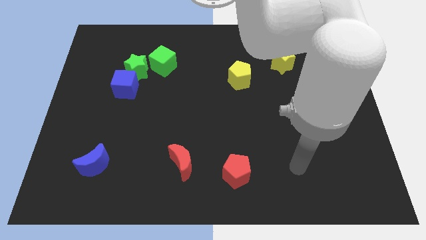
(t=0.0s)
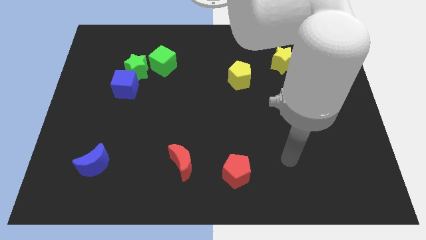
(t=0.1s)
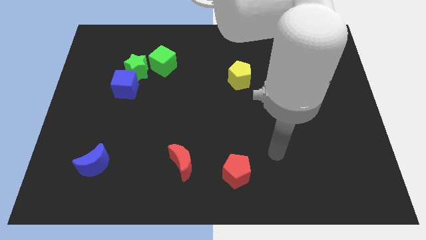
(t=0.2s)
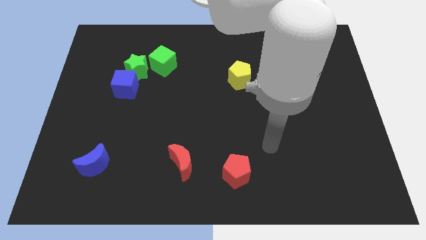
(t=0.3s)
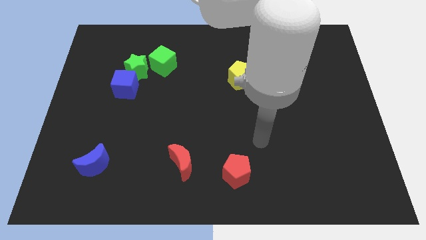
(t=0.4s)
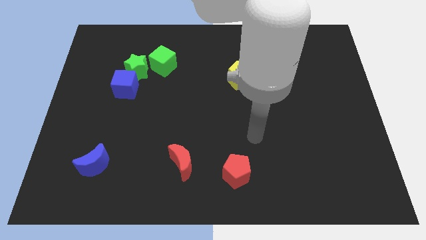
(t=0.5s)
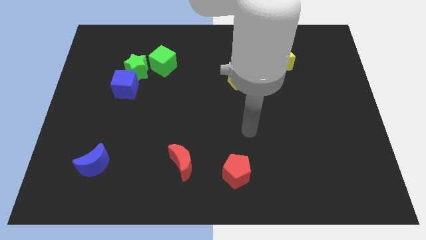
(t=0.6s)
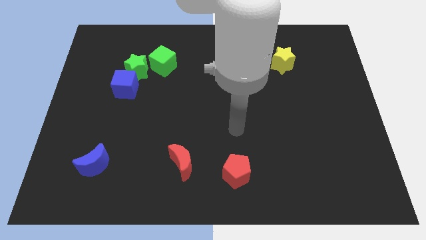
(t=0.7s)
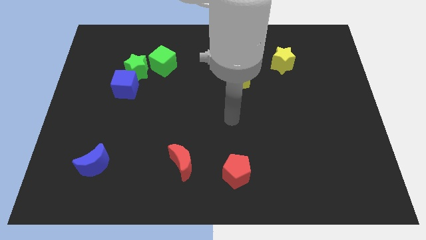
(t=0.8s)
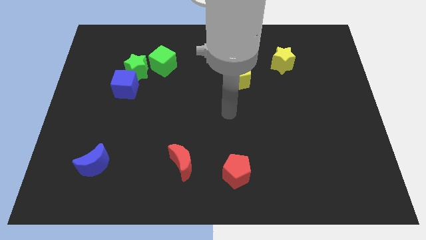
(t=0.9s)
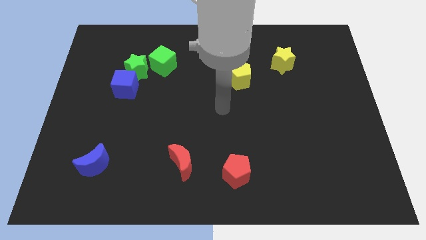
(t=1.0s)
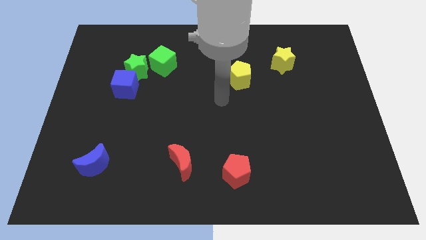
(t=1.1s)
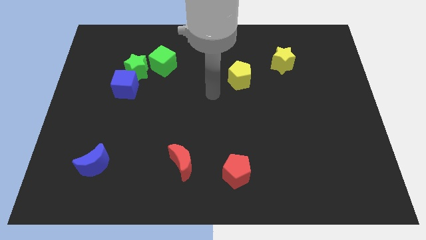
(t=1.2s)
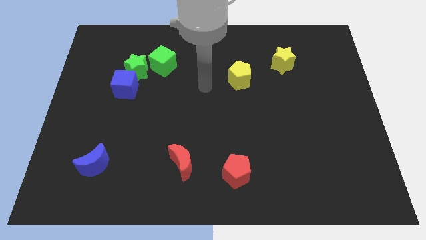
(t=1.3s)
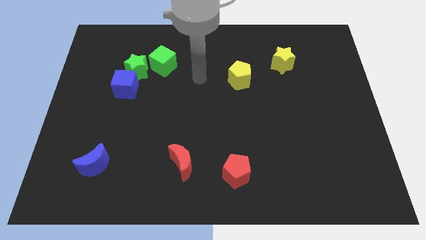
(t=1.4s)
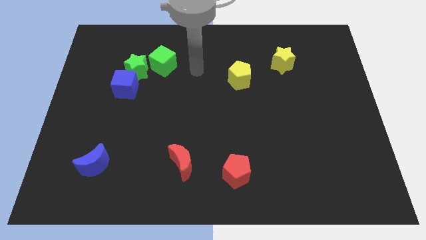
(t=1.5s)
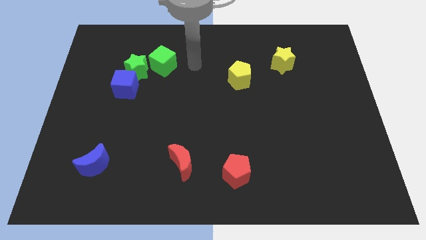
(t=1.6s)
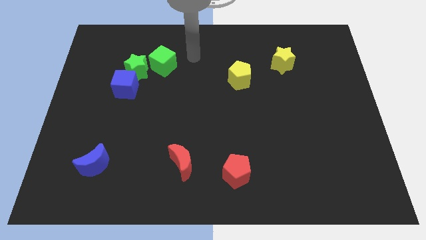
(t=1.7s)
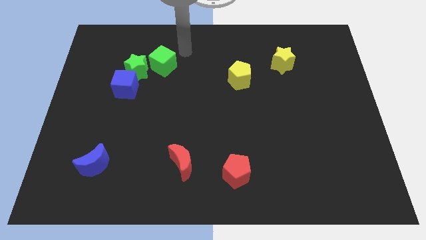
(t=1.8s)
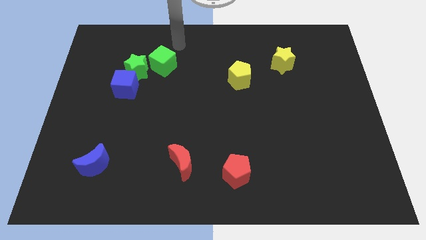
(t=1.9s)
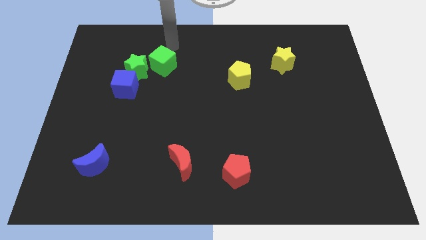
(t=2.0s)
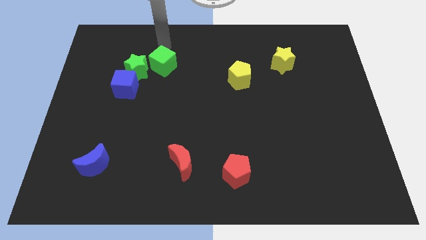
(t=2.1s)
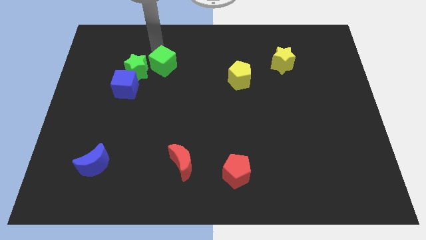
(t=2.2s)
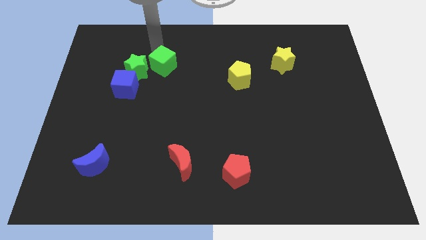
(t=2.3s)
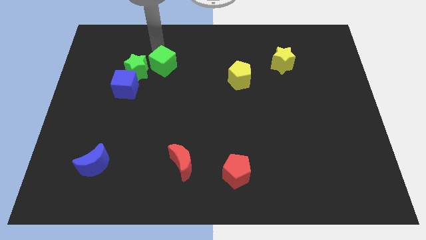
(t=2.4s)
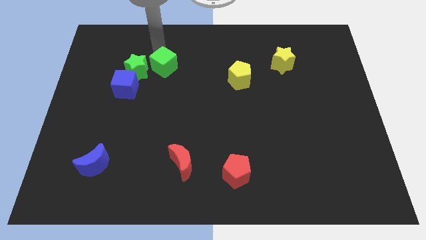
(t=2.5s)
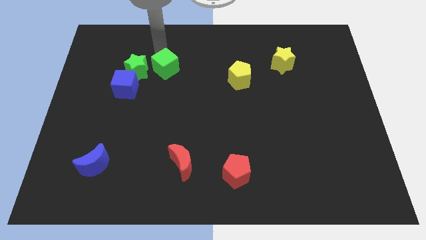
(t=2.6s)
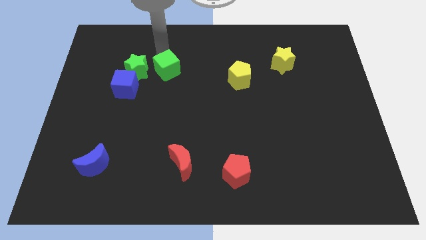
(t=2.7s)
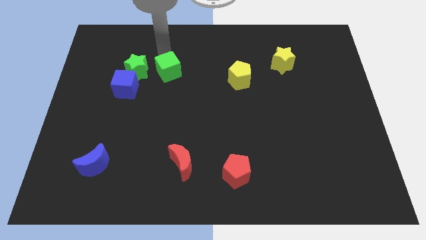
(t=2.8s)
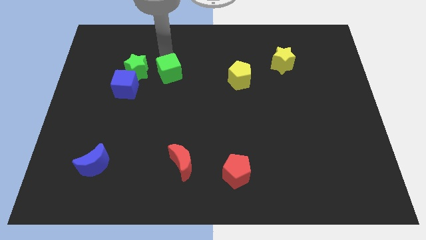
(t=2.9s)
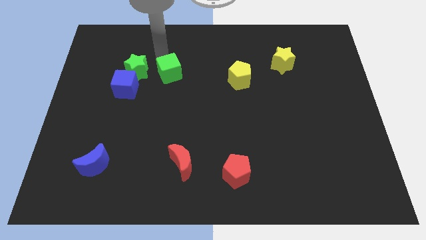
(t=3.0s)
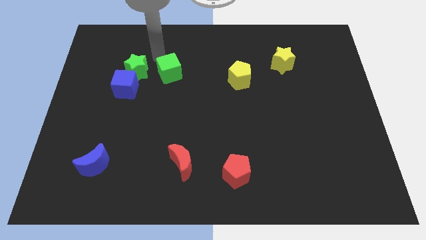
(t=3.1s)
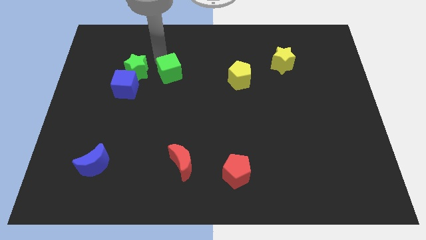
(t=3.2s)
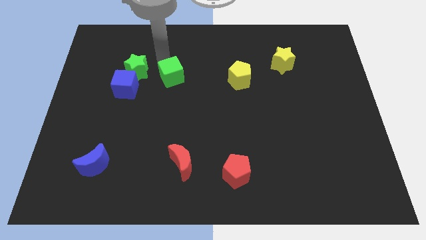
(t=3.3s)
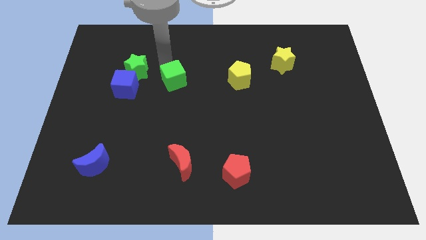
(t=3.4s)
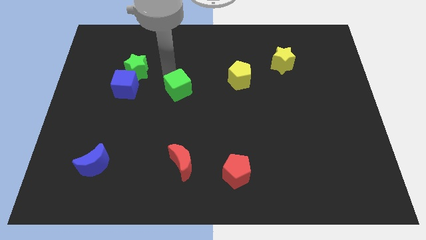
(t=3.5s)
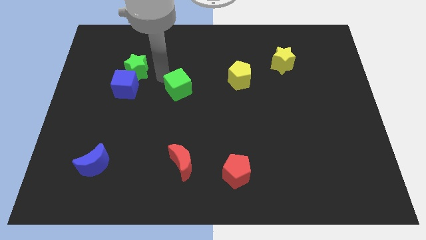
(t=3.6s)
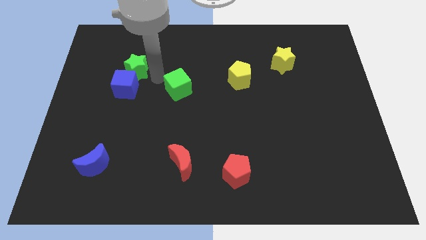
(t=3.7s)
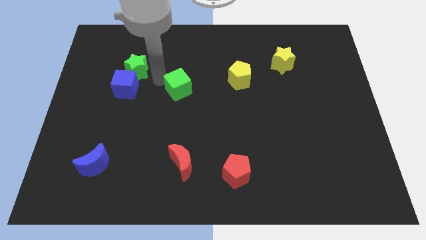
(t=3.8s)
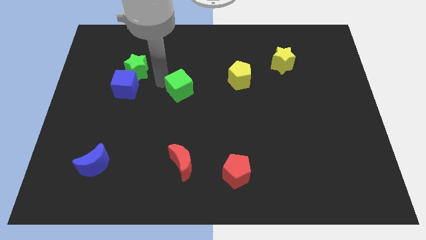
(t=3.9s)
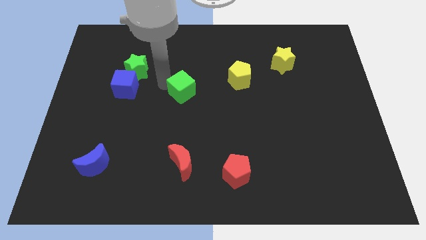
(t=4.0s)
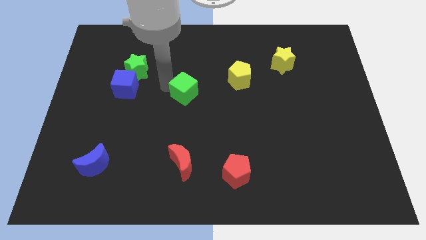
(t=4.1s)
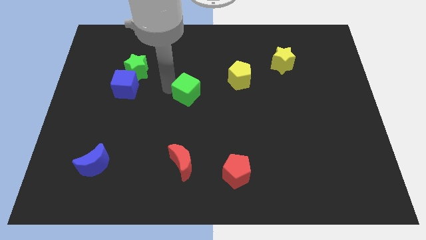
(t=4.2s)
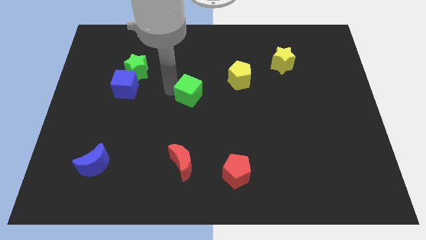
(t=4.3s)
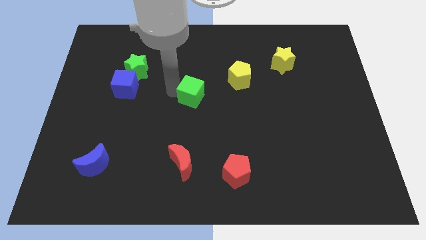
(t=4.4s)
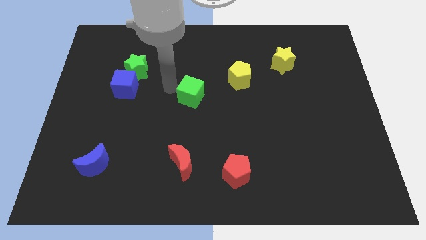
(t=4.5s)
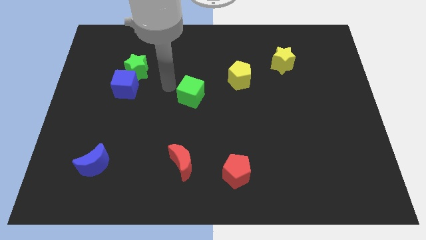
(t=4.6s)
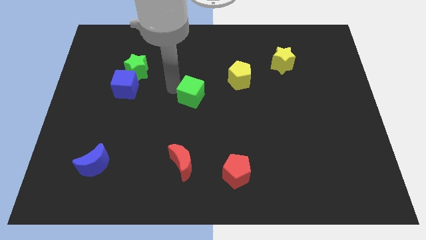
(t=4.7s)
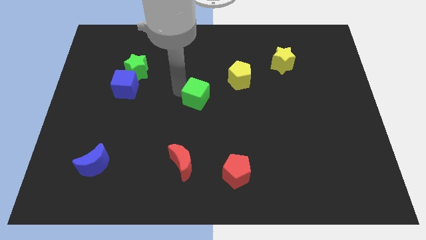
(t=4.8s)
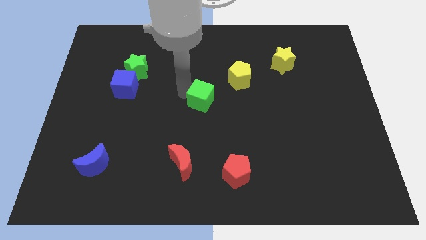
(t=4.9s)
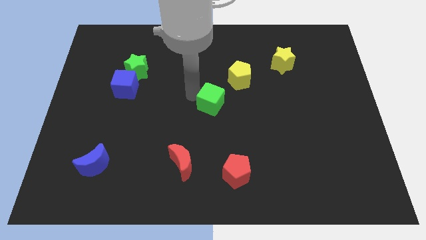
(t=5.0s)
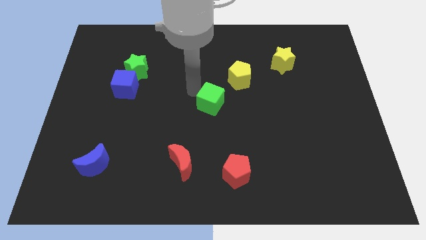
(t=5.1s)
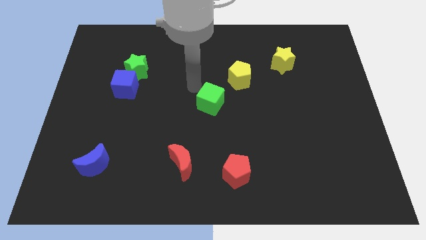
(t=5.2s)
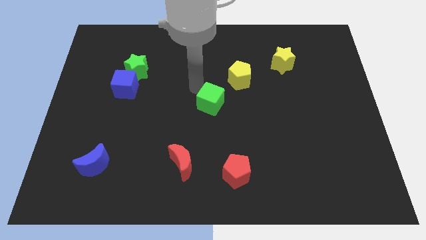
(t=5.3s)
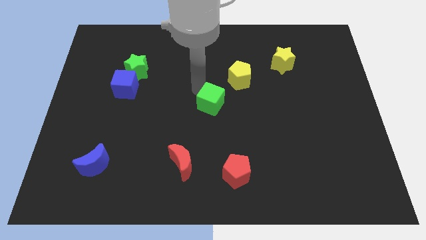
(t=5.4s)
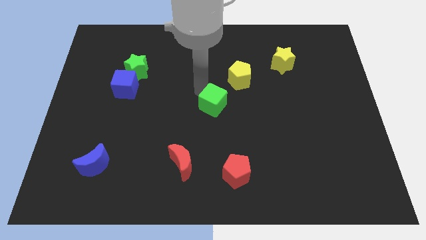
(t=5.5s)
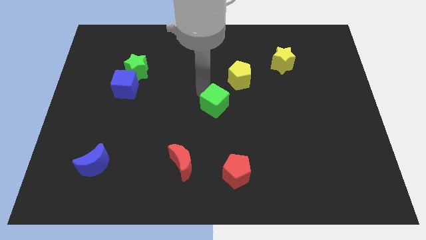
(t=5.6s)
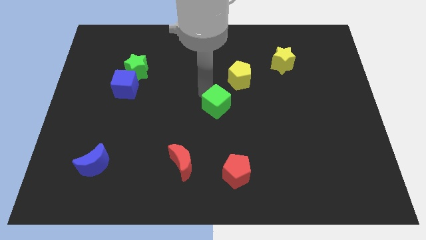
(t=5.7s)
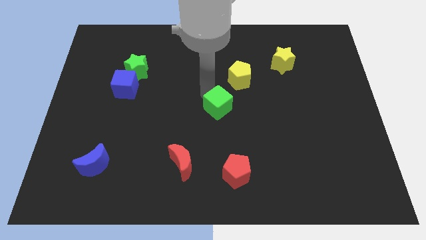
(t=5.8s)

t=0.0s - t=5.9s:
slide the green cube down and to the right diagonally

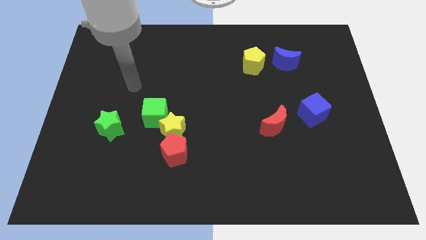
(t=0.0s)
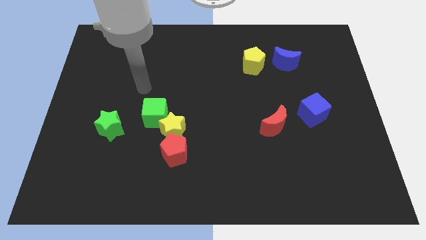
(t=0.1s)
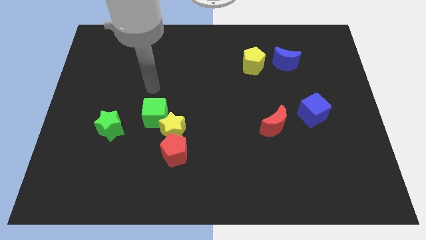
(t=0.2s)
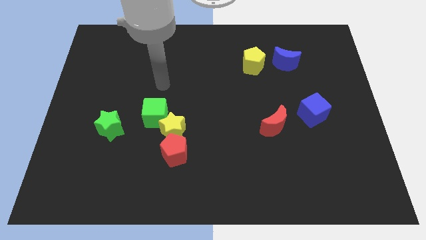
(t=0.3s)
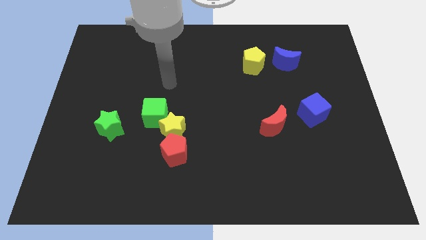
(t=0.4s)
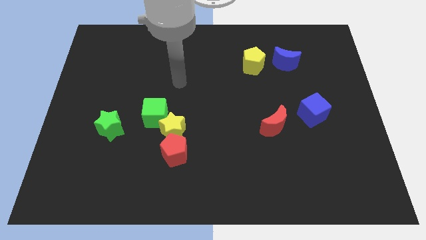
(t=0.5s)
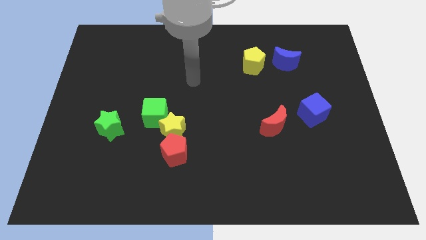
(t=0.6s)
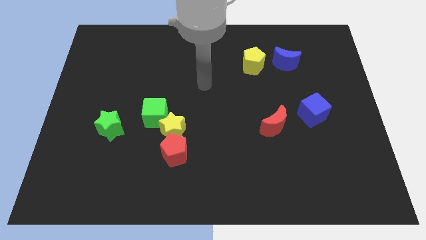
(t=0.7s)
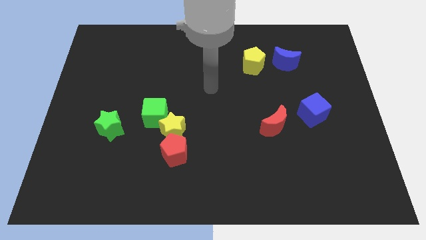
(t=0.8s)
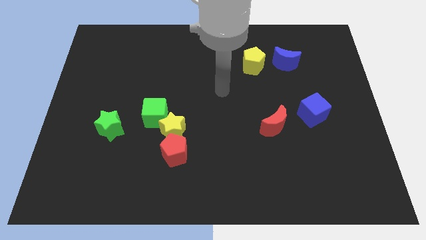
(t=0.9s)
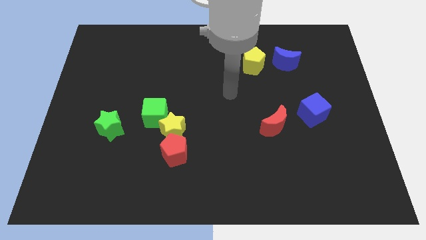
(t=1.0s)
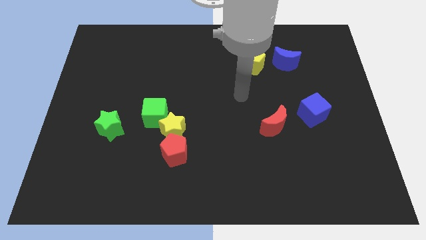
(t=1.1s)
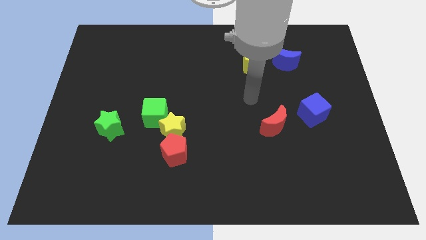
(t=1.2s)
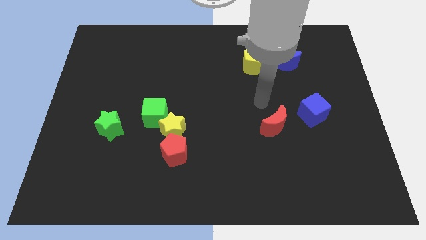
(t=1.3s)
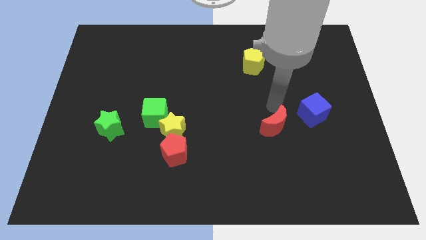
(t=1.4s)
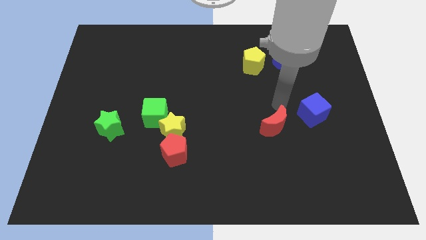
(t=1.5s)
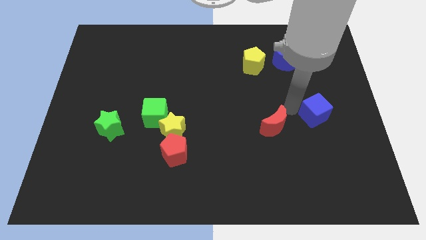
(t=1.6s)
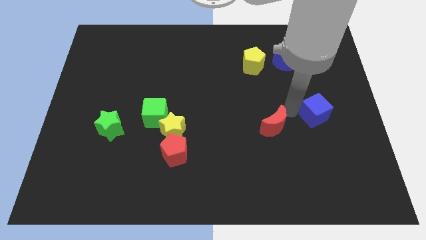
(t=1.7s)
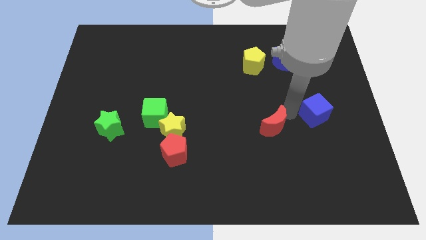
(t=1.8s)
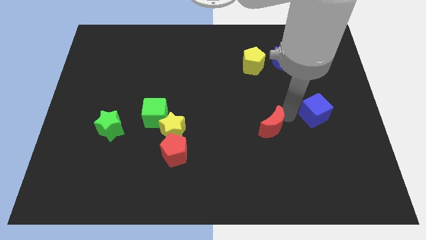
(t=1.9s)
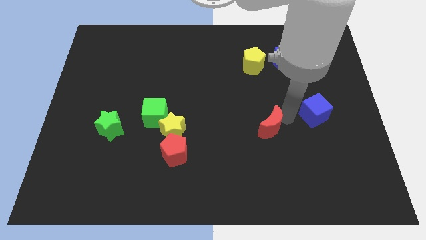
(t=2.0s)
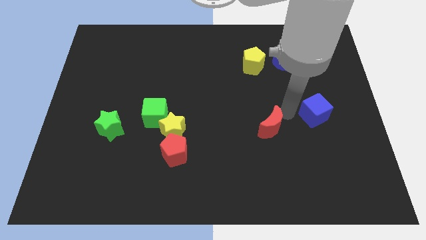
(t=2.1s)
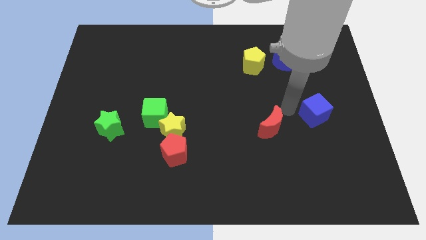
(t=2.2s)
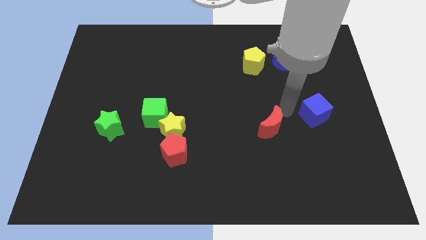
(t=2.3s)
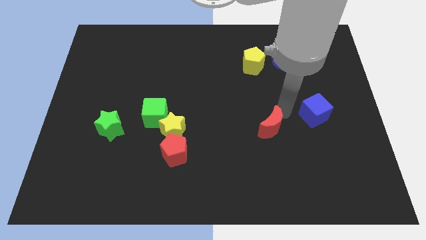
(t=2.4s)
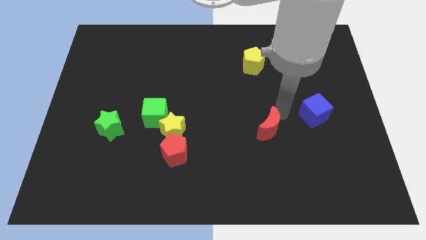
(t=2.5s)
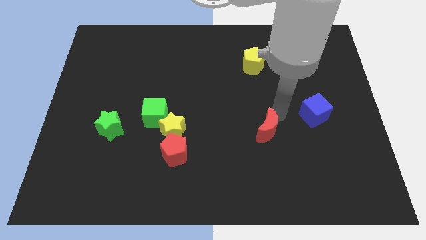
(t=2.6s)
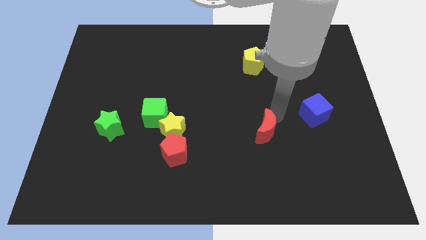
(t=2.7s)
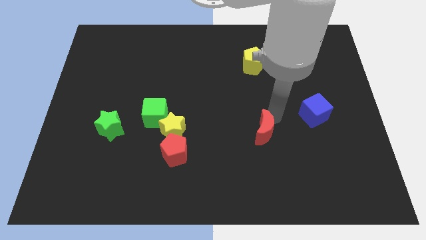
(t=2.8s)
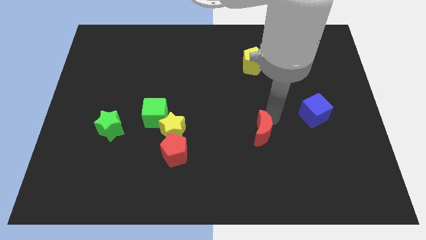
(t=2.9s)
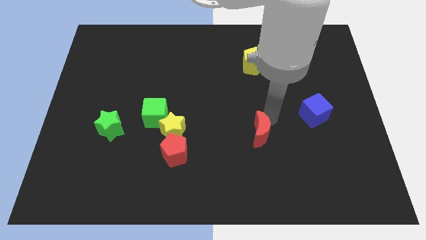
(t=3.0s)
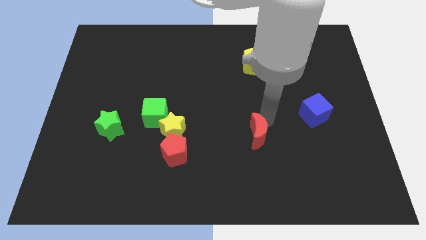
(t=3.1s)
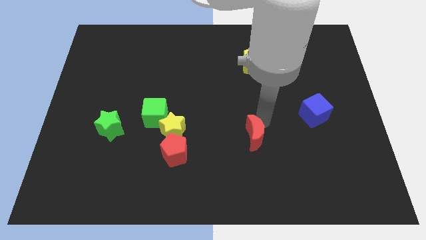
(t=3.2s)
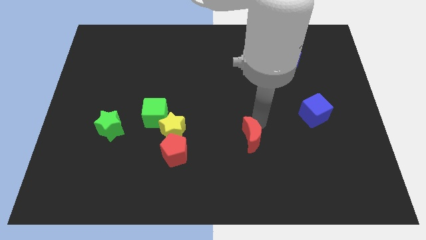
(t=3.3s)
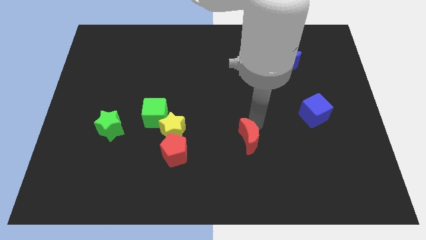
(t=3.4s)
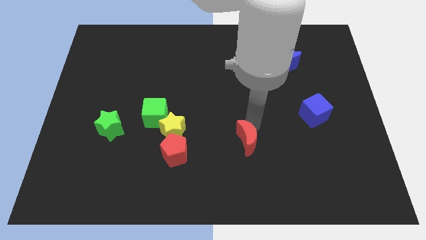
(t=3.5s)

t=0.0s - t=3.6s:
slightly move the red moon diagonally down and to the left
